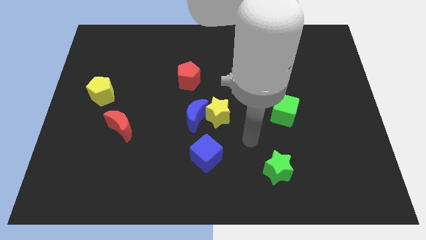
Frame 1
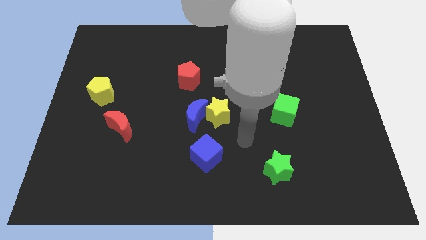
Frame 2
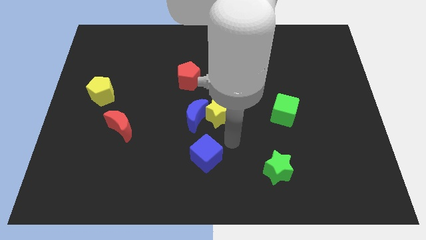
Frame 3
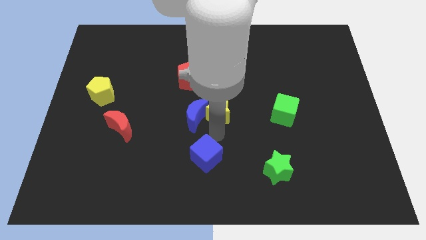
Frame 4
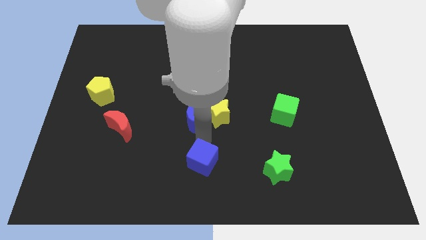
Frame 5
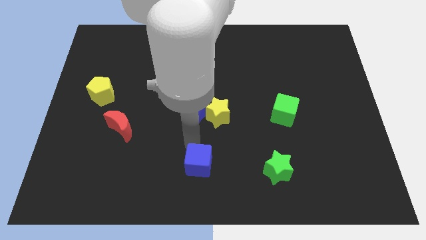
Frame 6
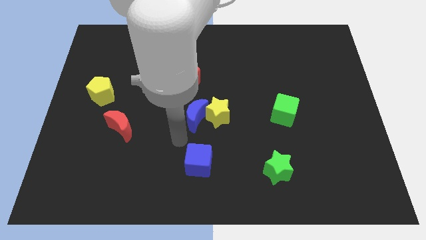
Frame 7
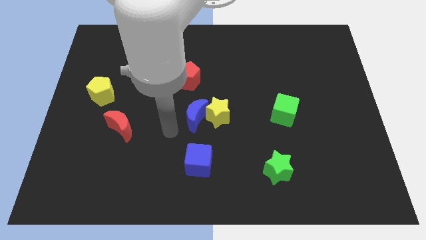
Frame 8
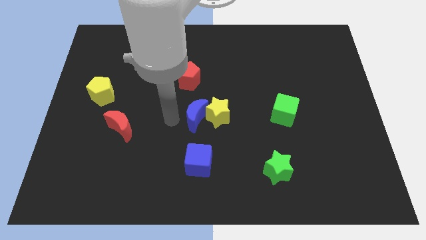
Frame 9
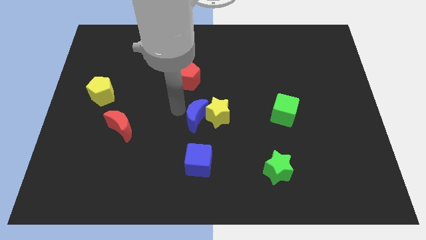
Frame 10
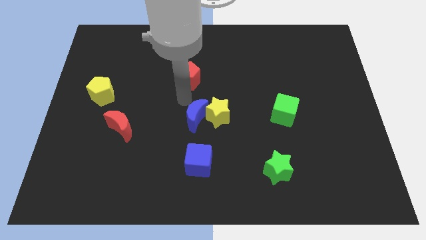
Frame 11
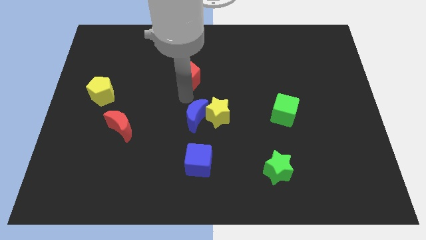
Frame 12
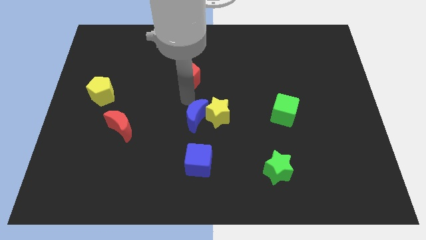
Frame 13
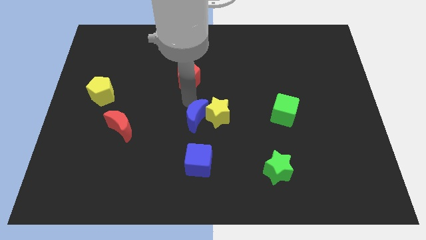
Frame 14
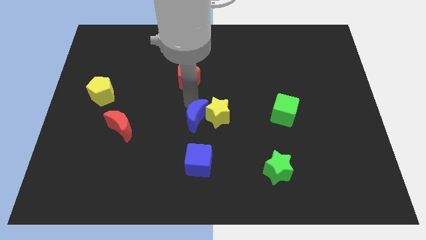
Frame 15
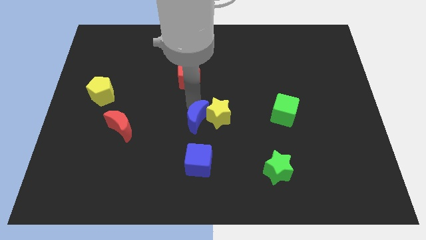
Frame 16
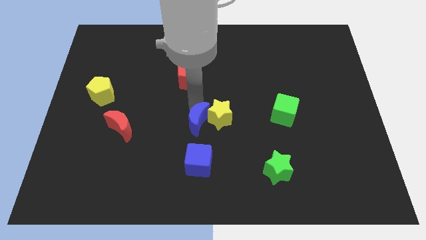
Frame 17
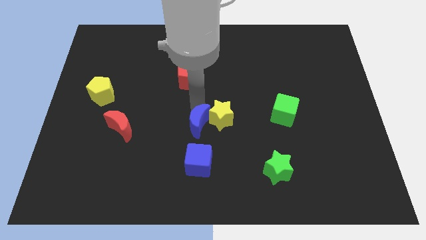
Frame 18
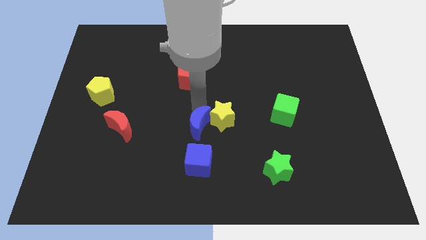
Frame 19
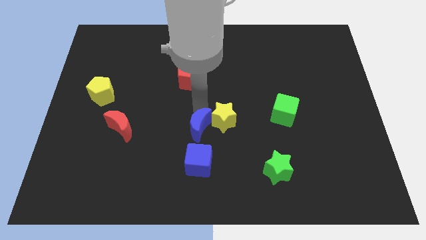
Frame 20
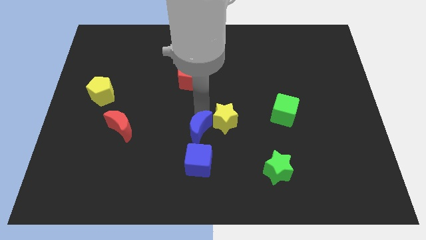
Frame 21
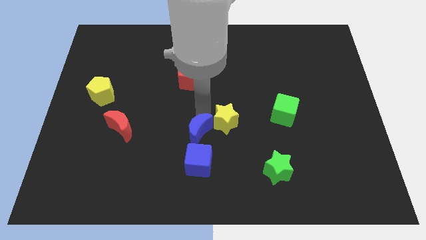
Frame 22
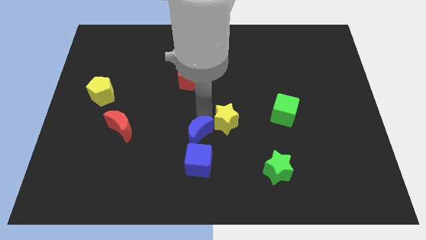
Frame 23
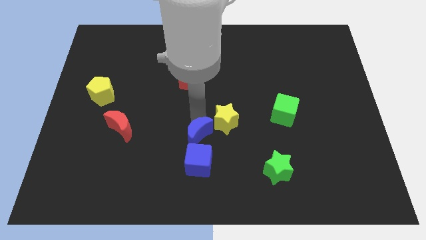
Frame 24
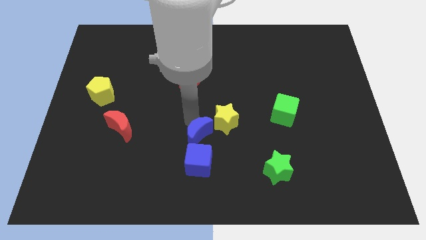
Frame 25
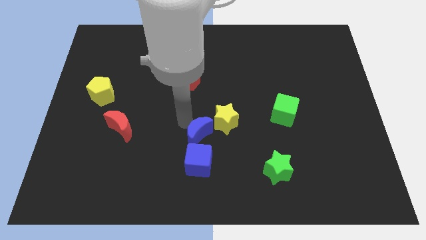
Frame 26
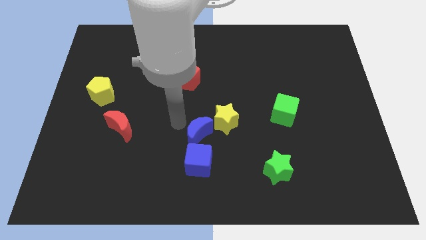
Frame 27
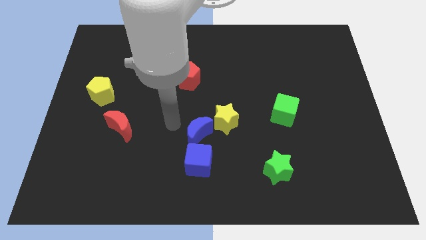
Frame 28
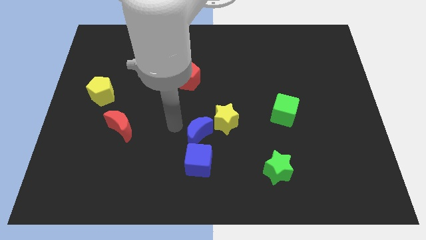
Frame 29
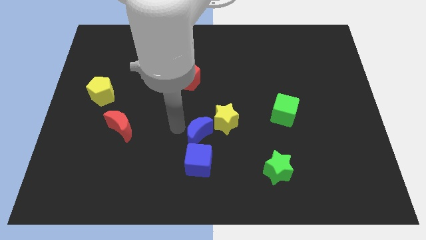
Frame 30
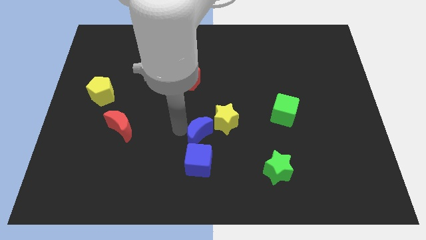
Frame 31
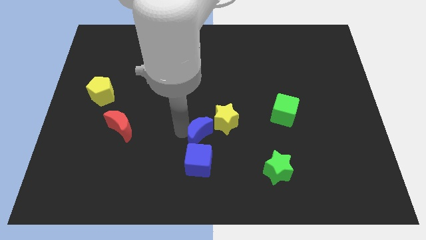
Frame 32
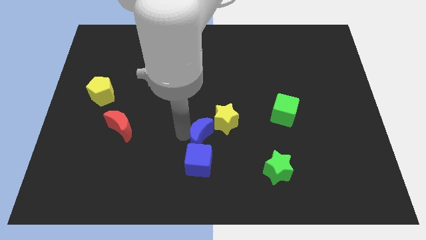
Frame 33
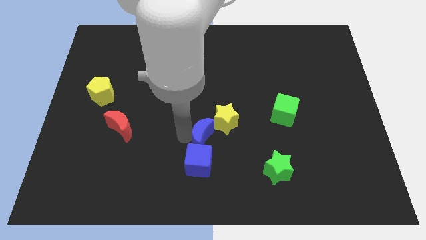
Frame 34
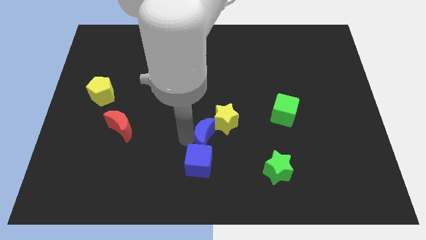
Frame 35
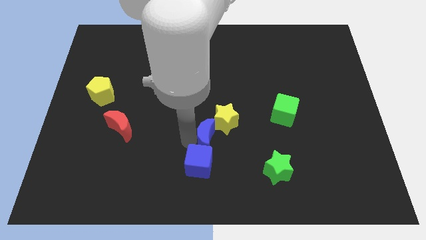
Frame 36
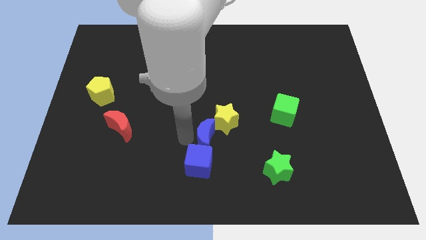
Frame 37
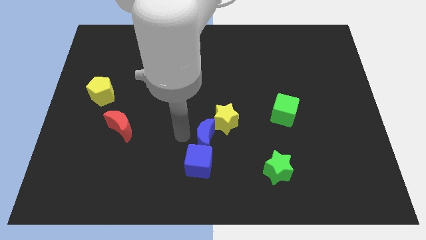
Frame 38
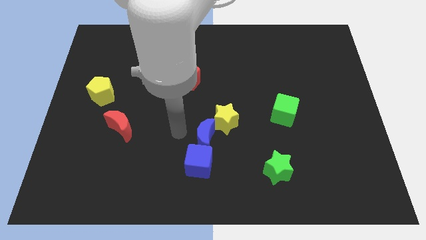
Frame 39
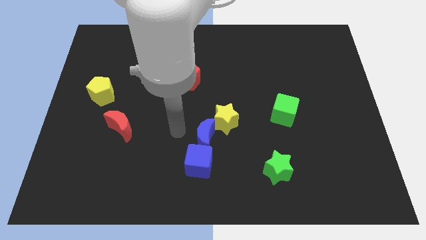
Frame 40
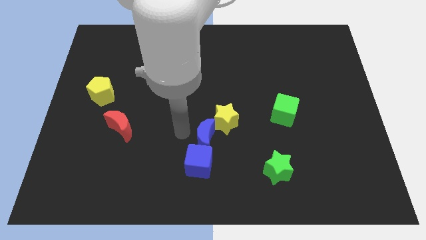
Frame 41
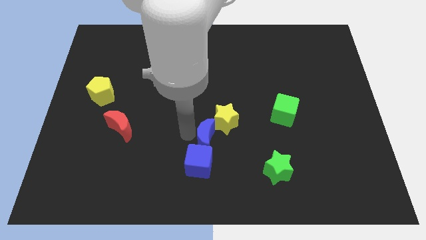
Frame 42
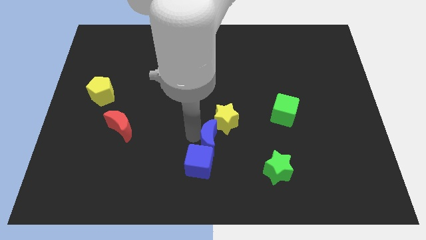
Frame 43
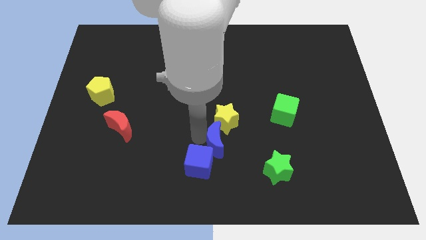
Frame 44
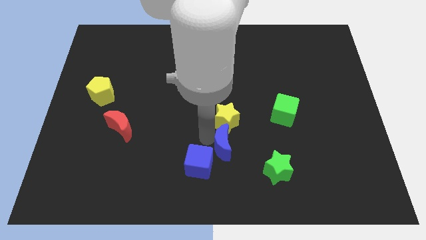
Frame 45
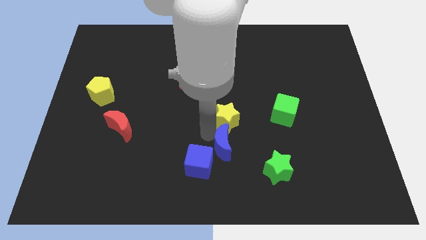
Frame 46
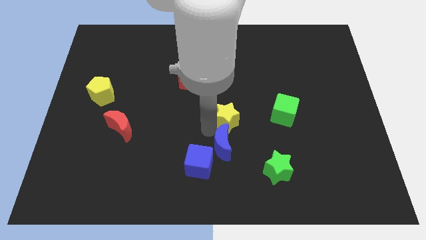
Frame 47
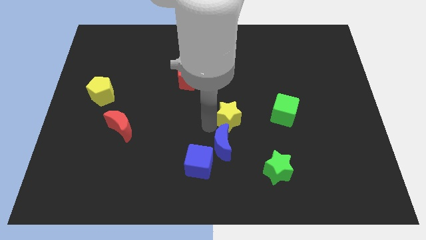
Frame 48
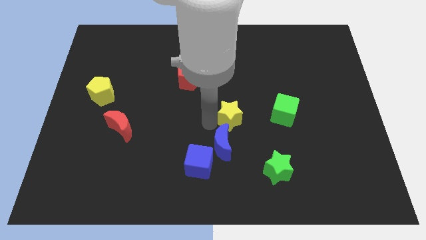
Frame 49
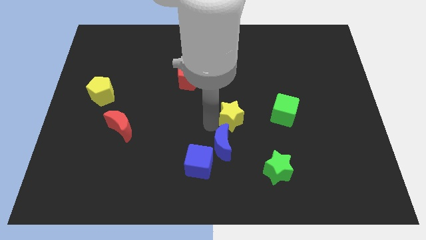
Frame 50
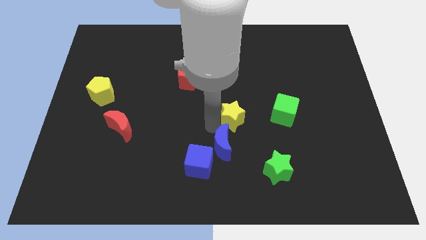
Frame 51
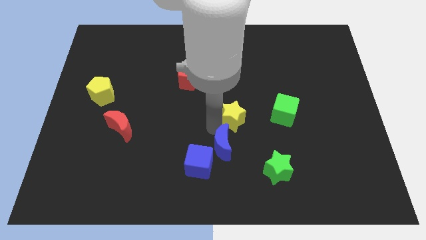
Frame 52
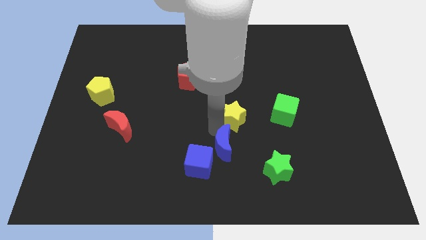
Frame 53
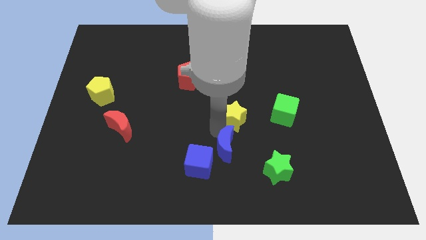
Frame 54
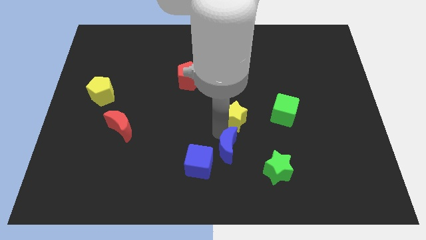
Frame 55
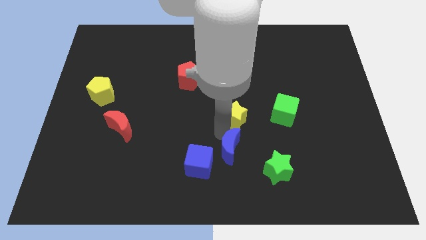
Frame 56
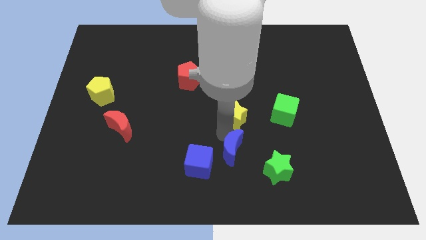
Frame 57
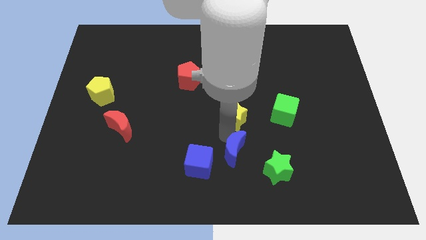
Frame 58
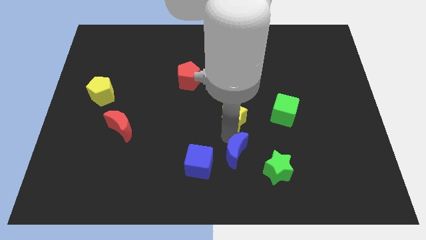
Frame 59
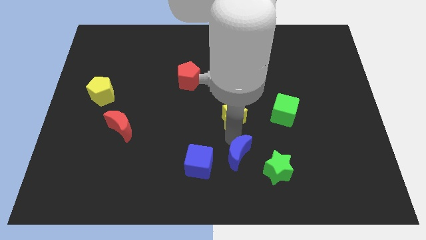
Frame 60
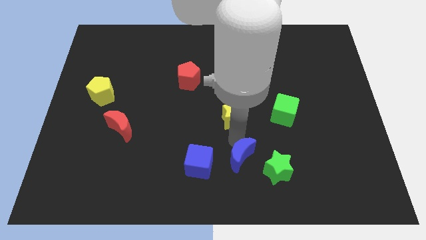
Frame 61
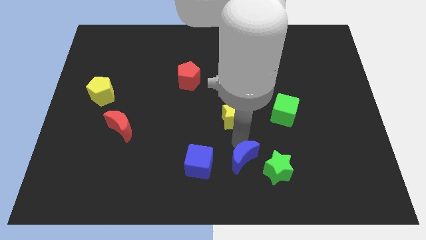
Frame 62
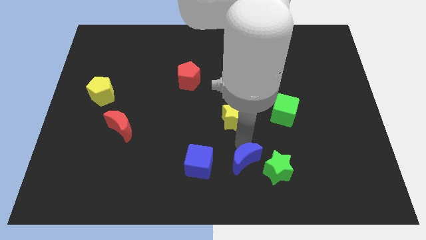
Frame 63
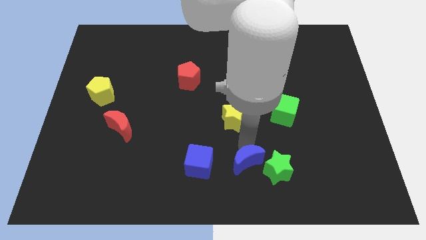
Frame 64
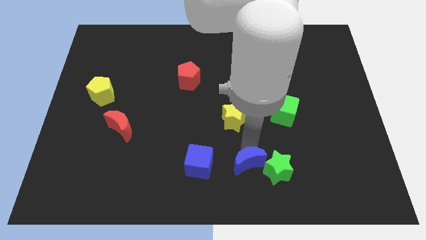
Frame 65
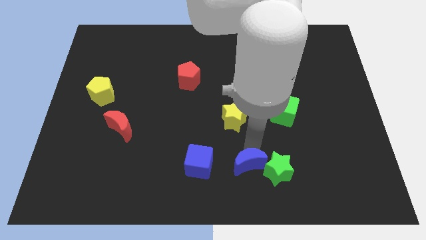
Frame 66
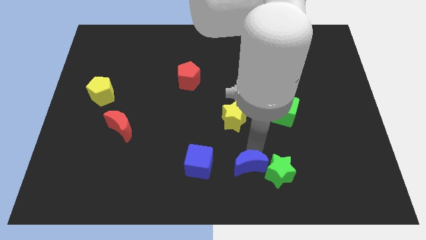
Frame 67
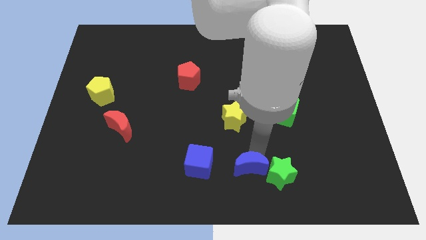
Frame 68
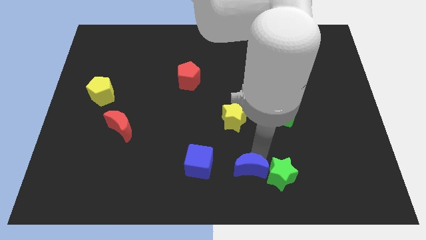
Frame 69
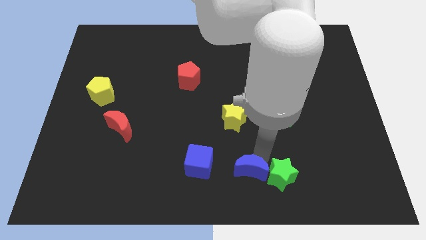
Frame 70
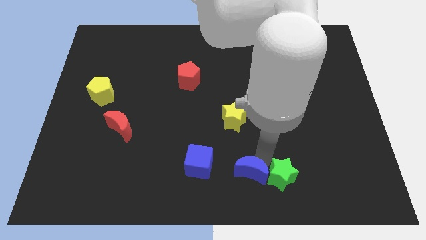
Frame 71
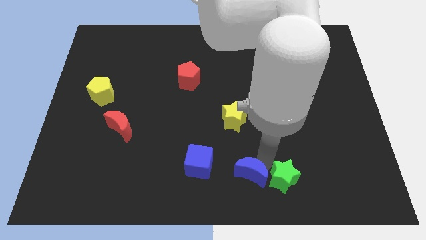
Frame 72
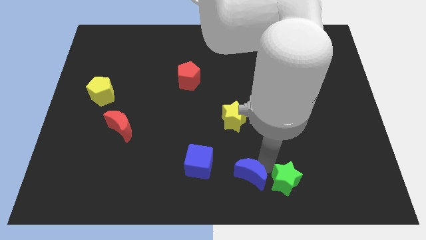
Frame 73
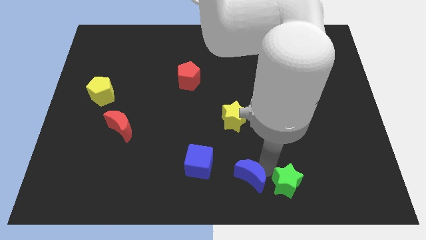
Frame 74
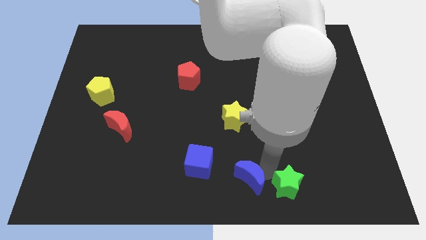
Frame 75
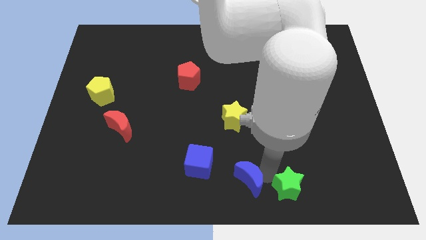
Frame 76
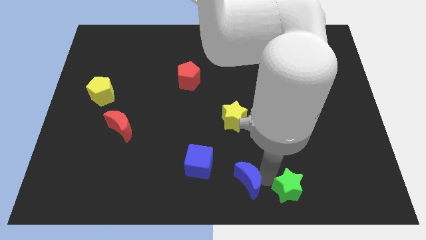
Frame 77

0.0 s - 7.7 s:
slide the blue moon to the bottom right of the blue cube
